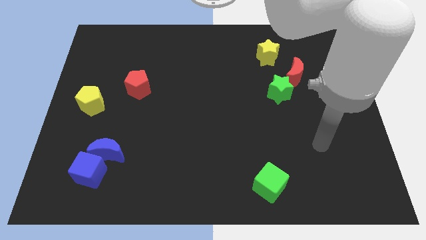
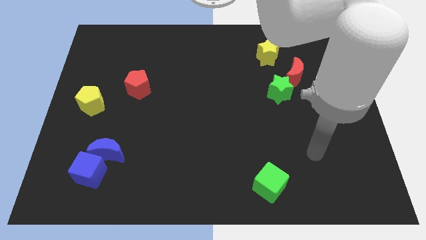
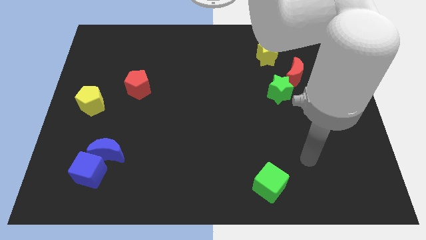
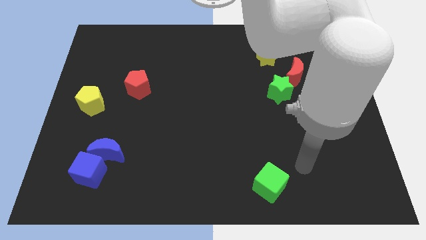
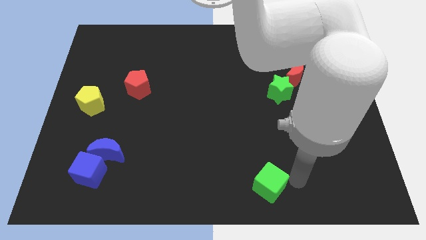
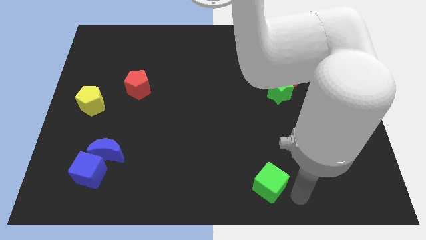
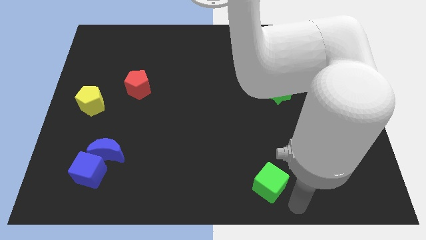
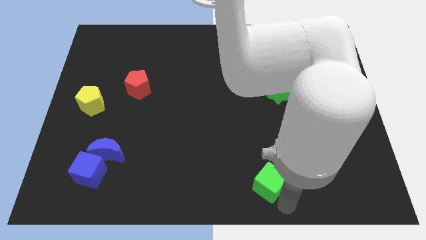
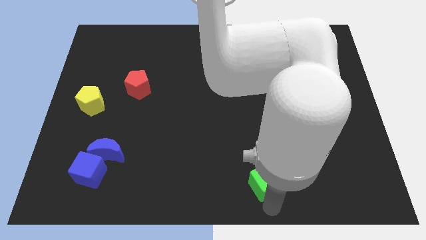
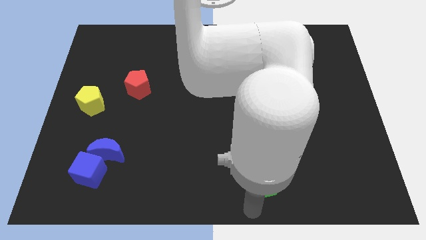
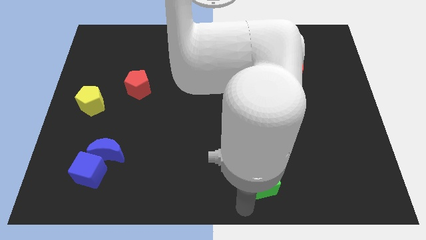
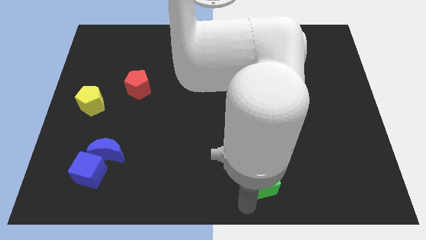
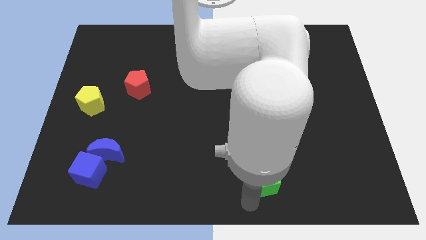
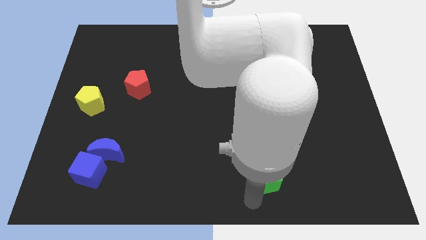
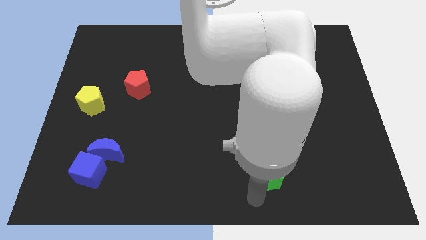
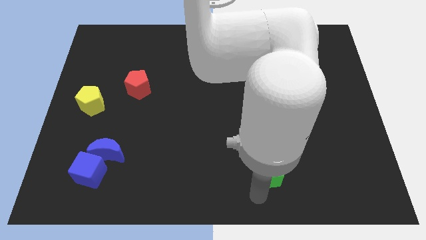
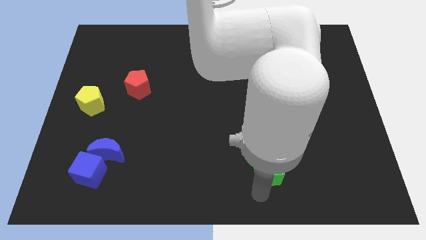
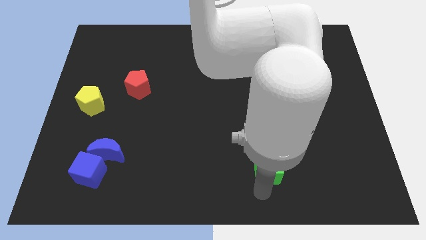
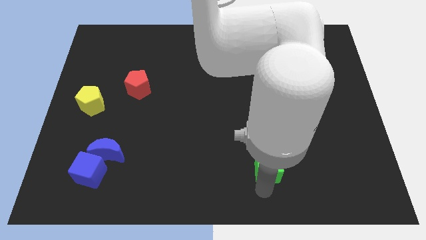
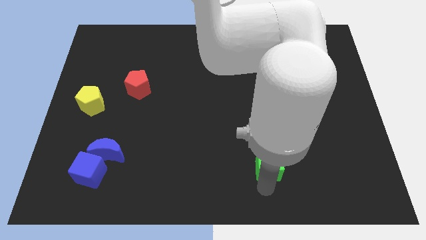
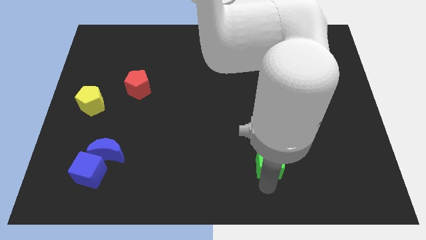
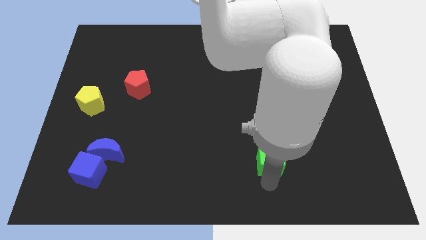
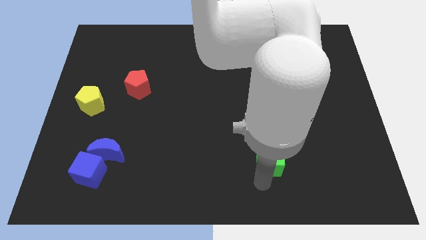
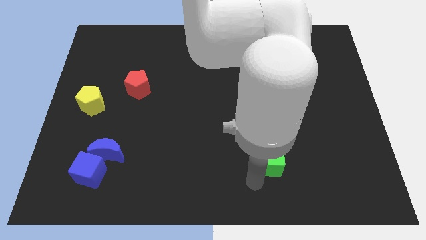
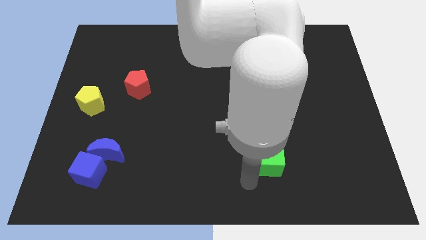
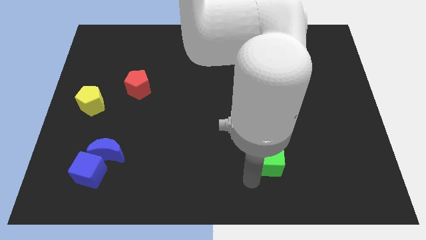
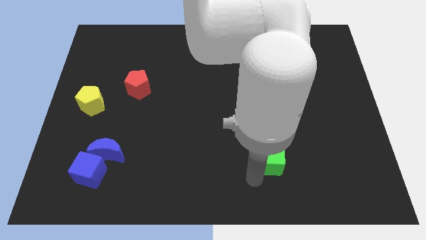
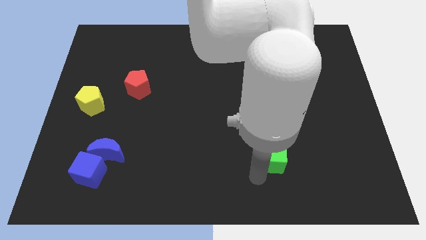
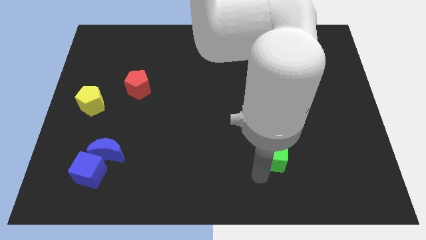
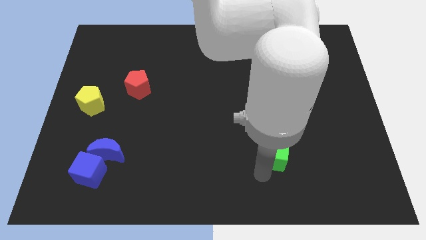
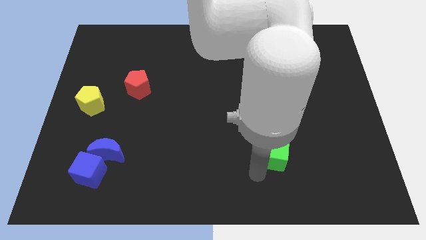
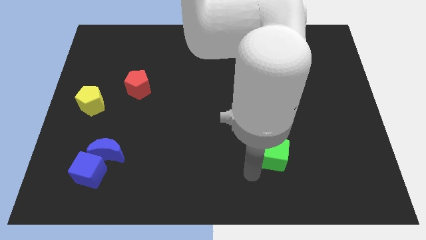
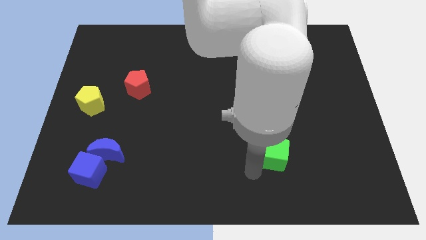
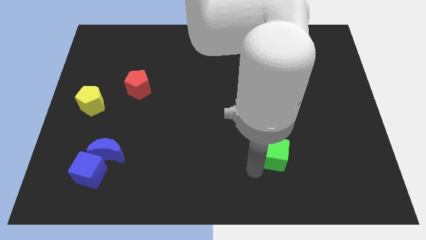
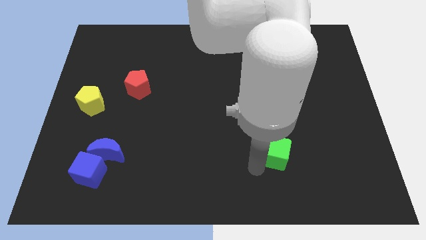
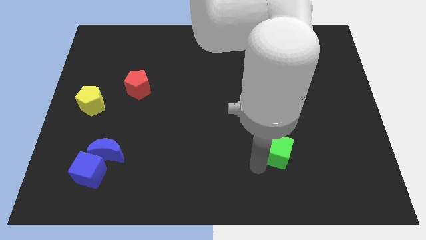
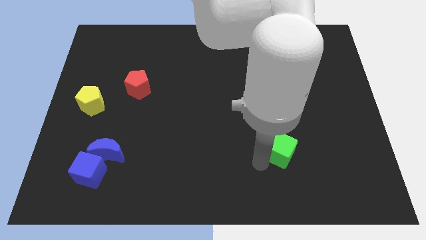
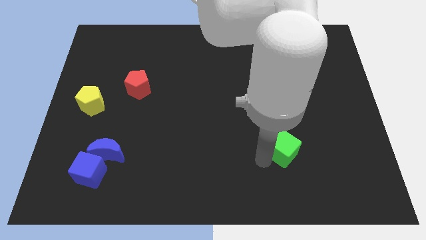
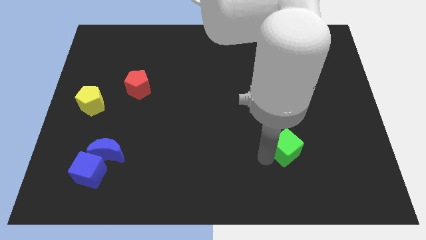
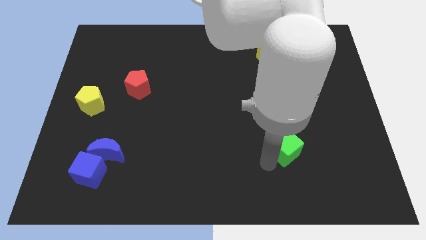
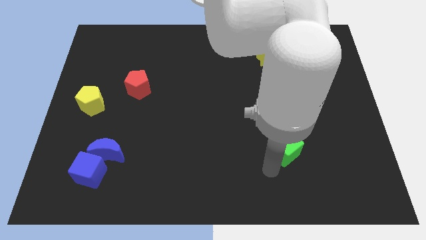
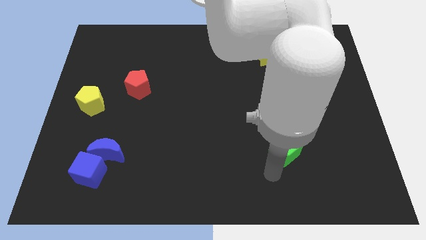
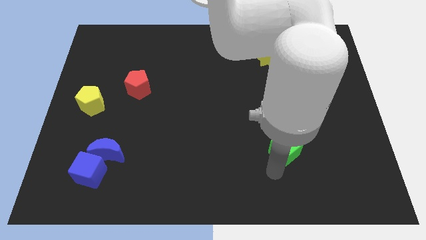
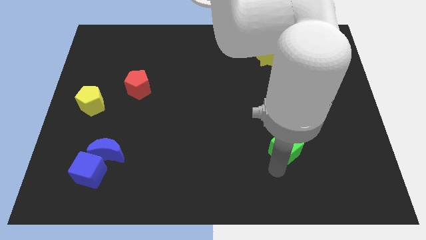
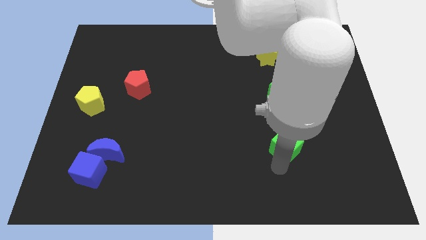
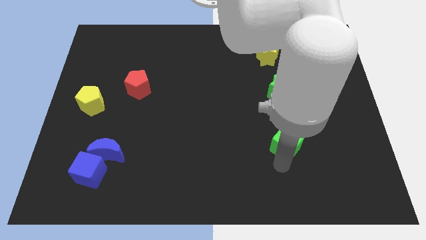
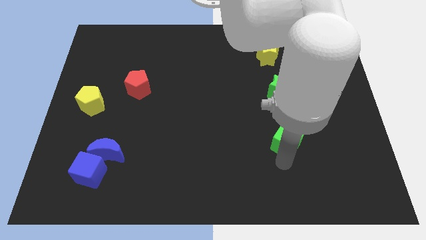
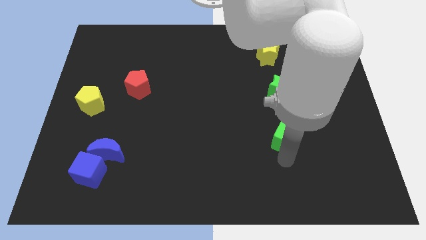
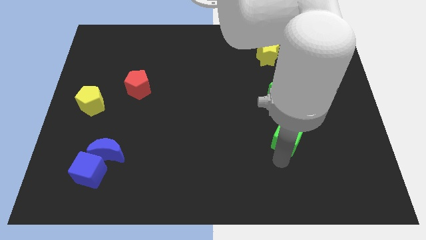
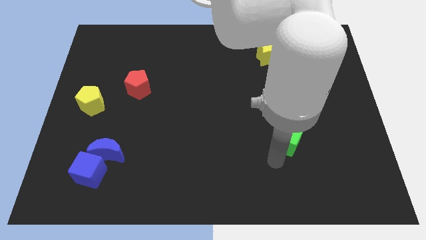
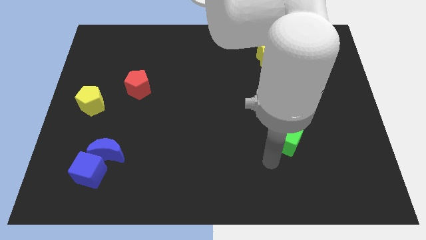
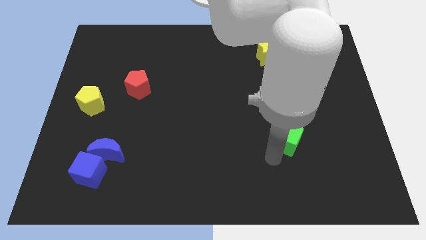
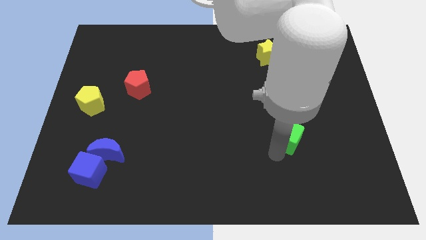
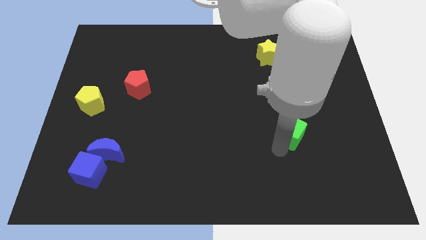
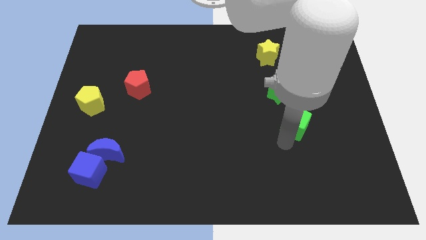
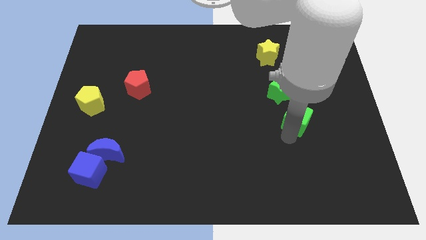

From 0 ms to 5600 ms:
move the green cube to the bottom right side of the green star

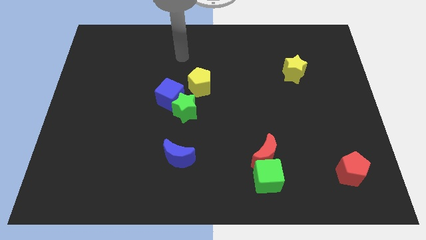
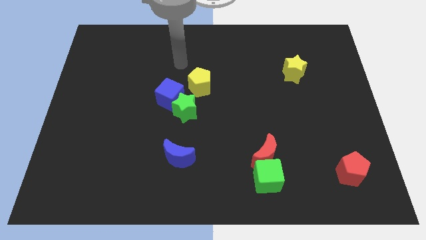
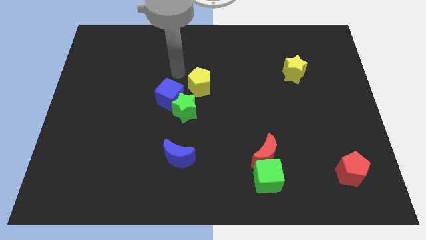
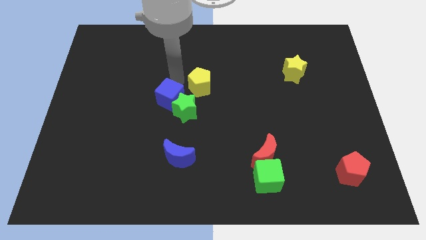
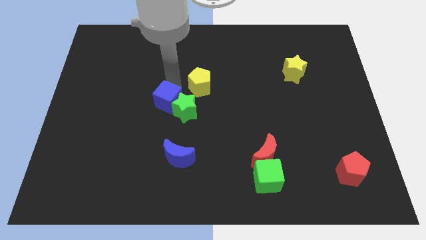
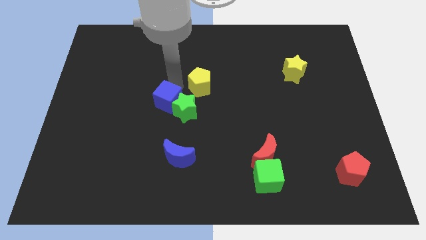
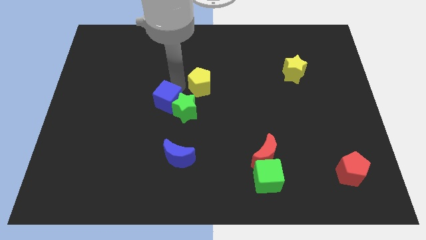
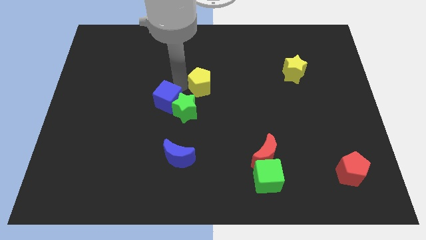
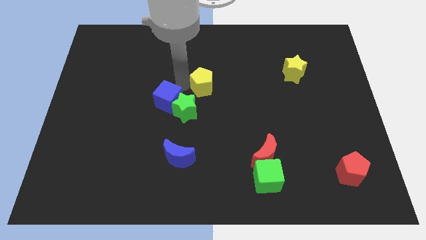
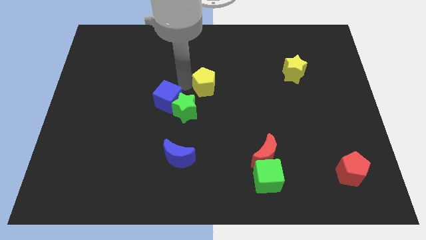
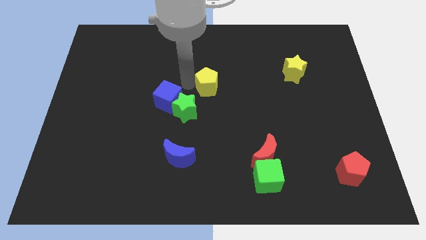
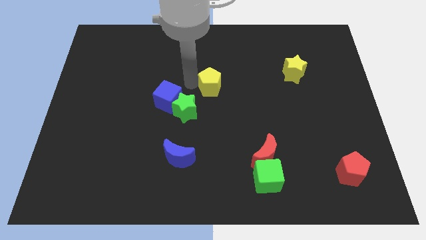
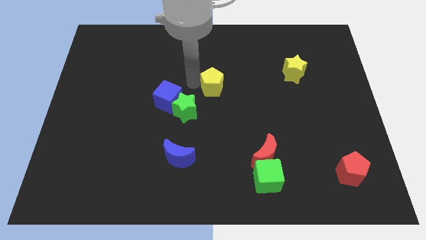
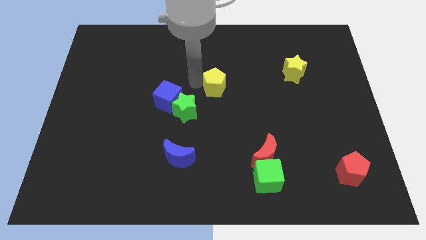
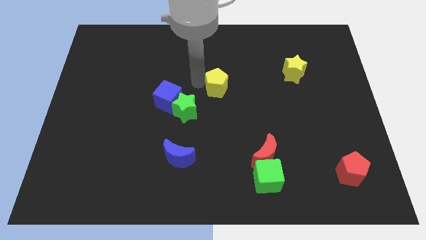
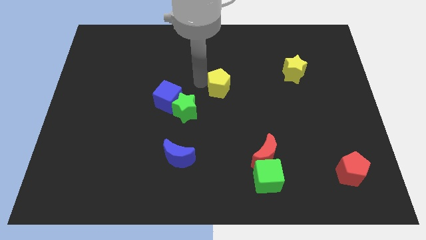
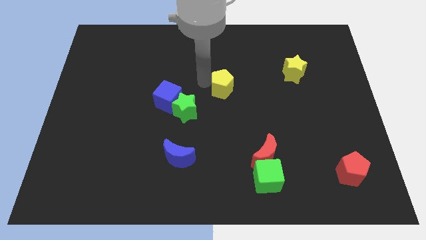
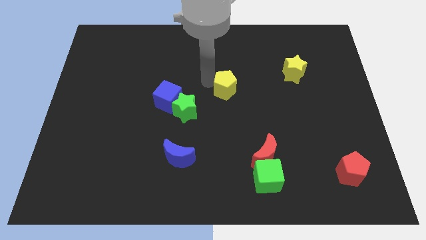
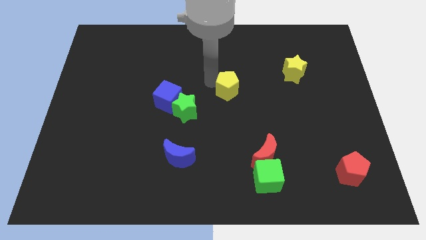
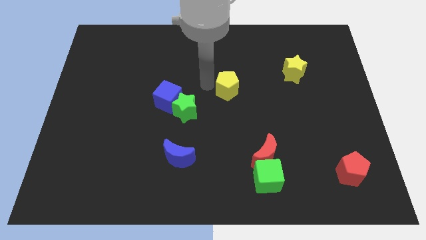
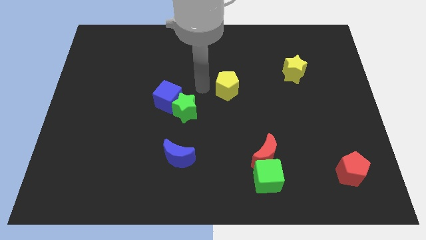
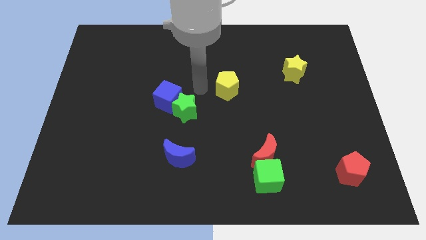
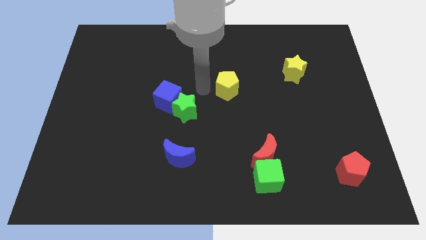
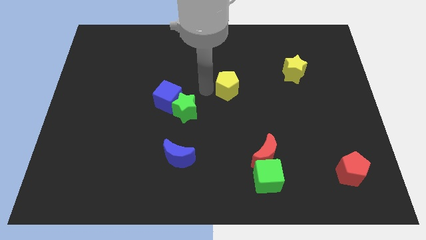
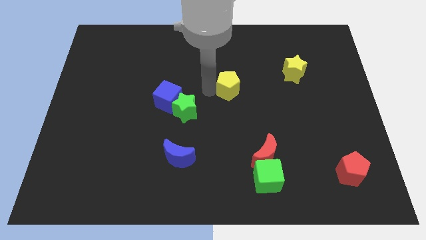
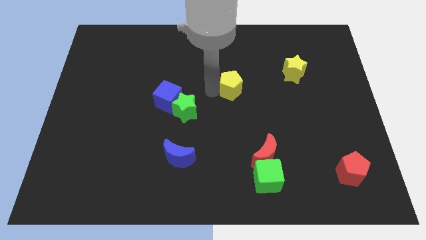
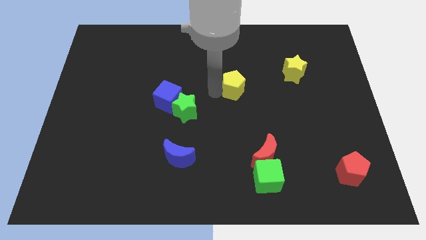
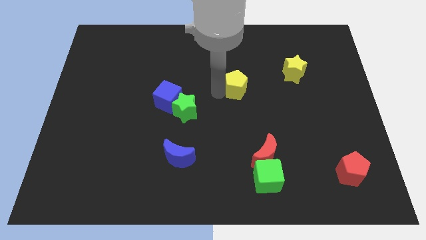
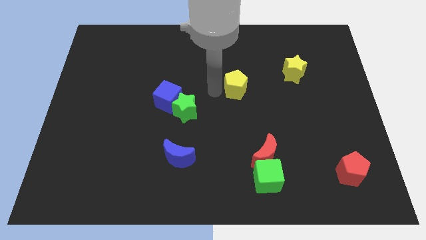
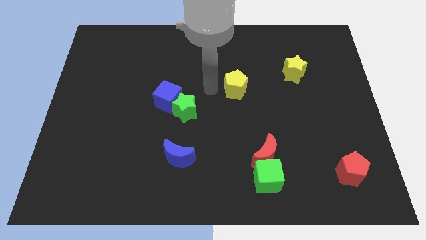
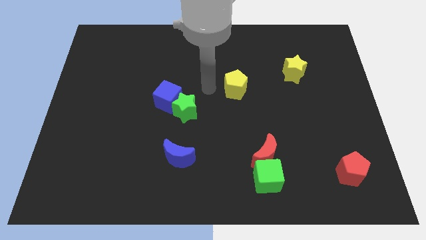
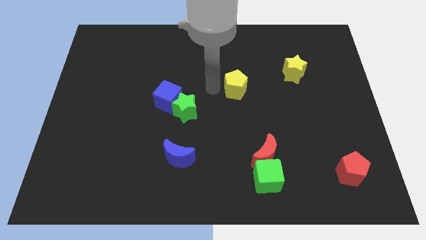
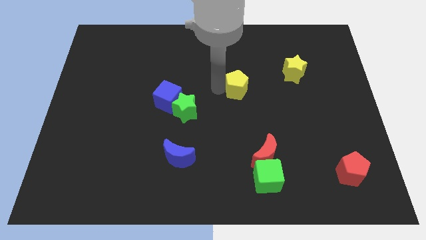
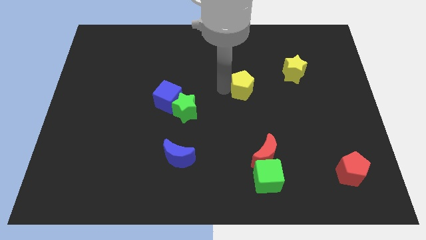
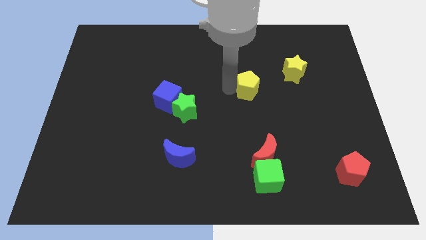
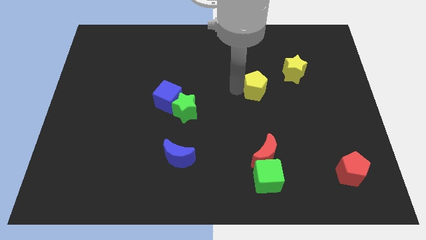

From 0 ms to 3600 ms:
put the yellow pentagon diagonally down and to the left of the yellow star
